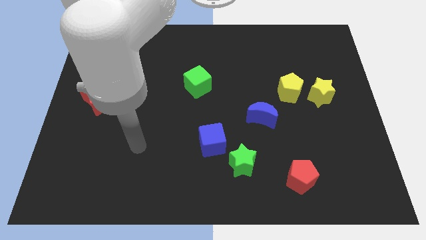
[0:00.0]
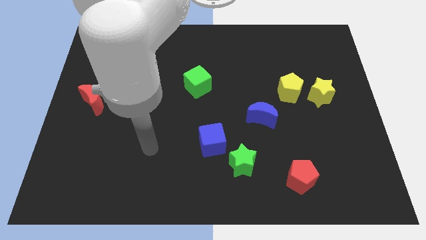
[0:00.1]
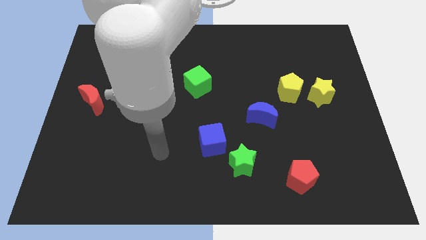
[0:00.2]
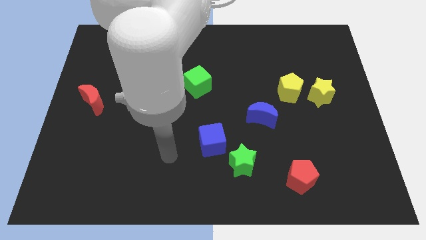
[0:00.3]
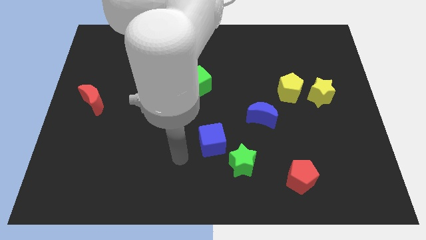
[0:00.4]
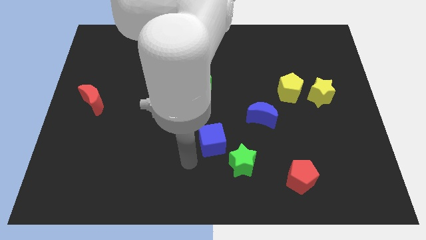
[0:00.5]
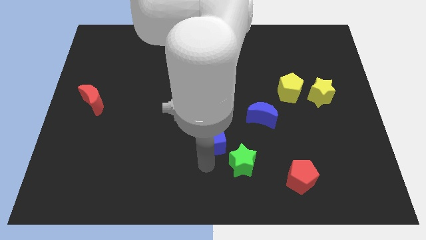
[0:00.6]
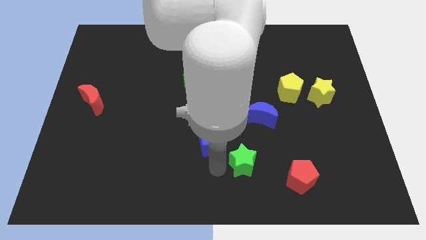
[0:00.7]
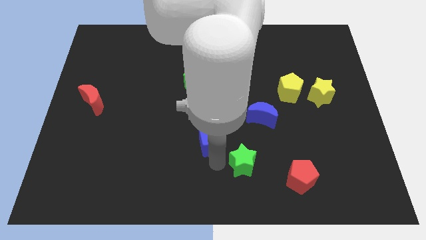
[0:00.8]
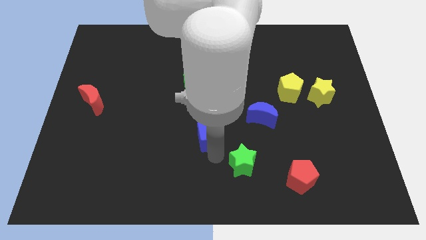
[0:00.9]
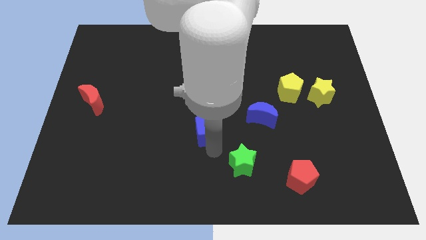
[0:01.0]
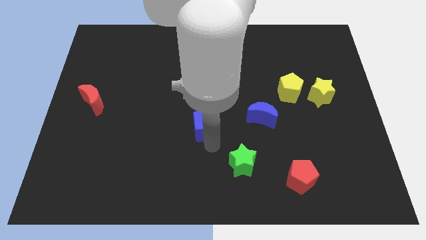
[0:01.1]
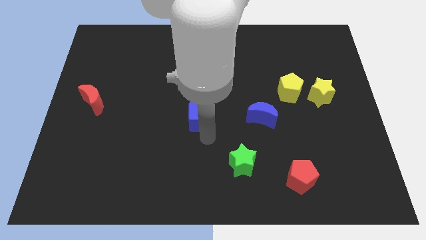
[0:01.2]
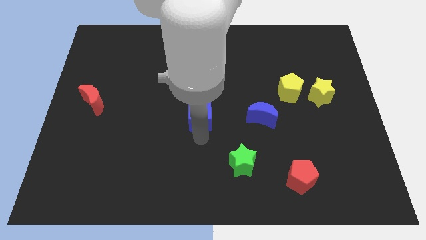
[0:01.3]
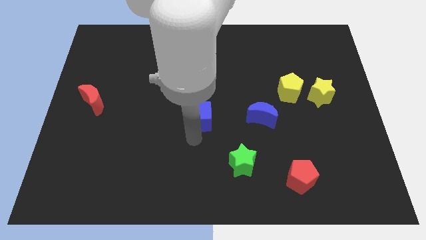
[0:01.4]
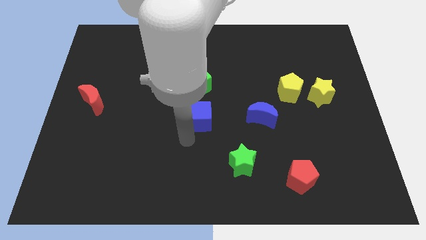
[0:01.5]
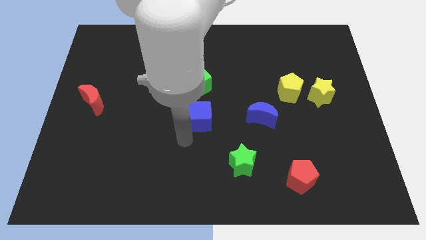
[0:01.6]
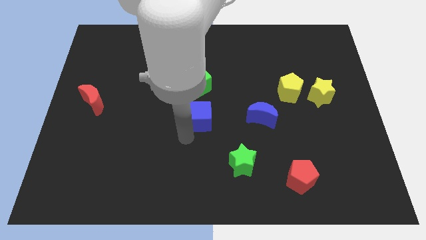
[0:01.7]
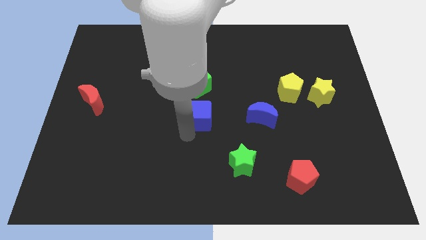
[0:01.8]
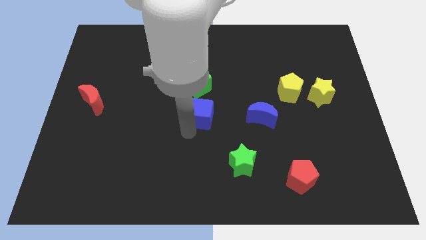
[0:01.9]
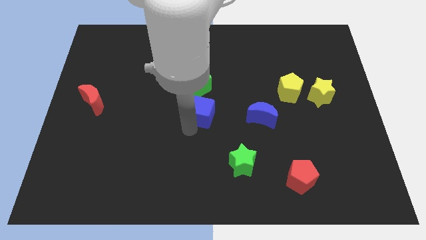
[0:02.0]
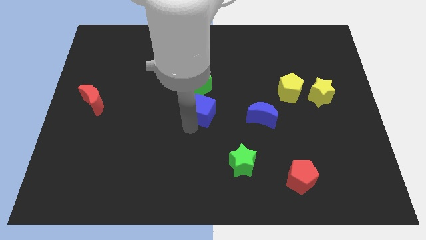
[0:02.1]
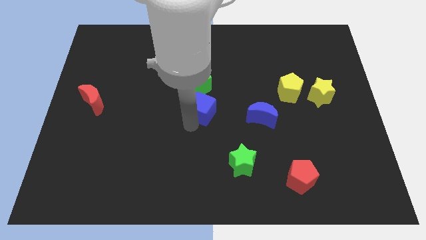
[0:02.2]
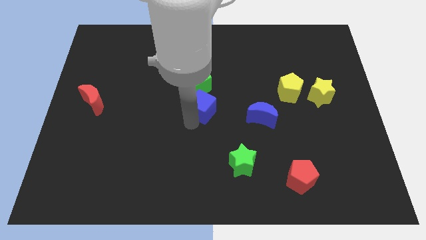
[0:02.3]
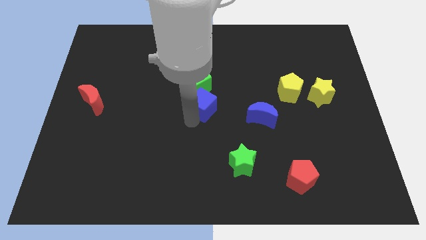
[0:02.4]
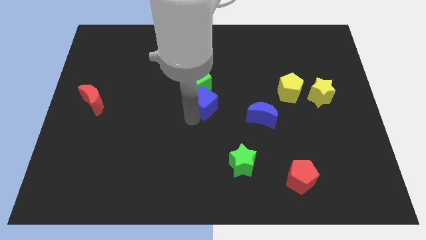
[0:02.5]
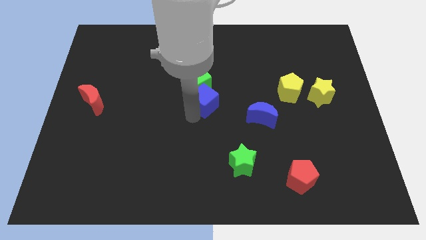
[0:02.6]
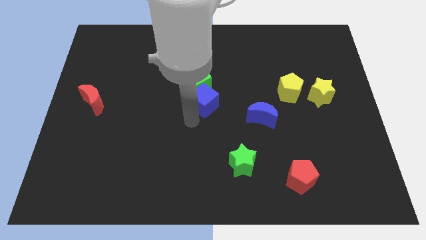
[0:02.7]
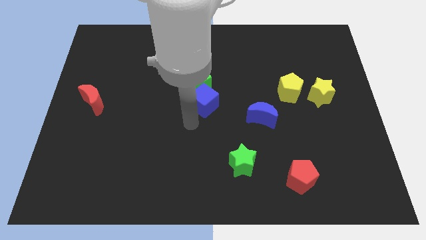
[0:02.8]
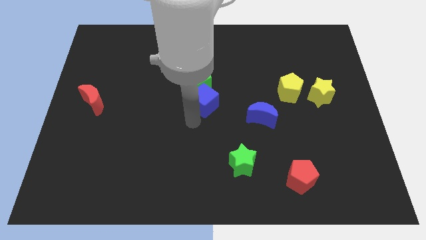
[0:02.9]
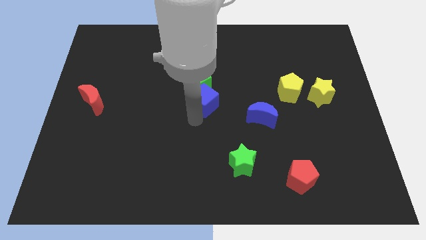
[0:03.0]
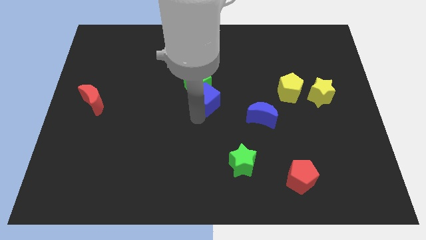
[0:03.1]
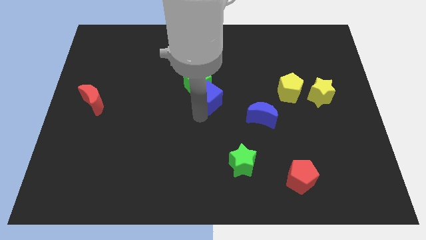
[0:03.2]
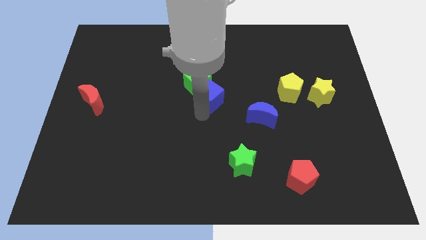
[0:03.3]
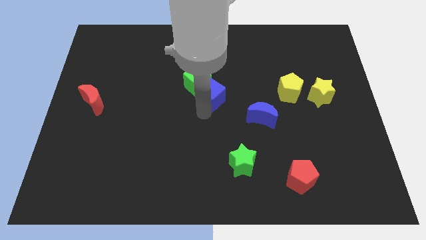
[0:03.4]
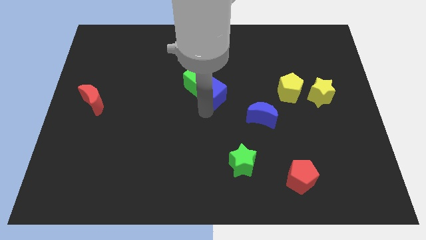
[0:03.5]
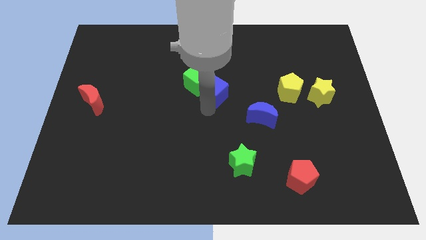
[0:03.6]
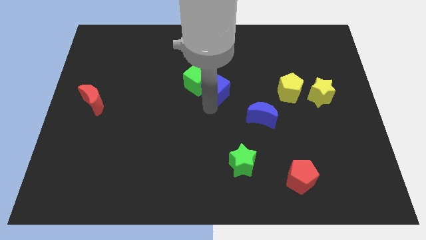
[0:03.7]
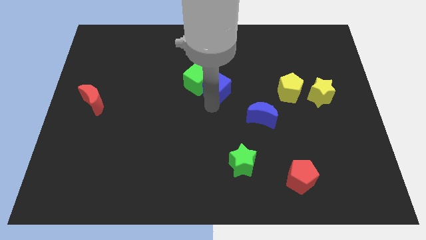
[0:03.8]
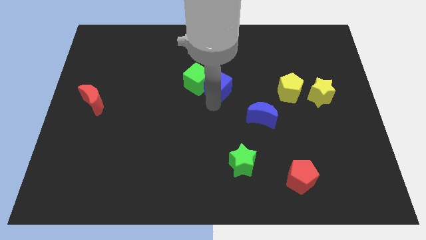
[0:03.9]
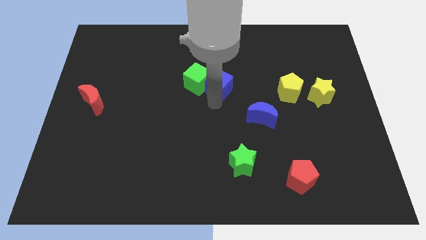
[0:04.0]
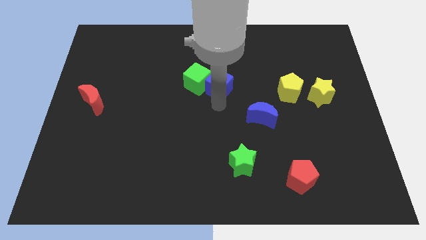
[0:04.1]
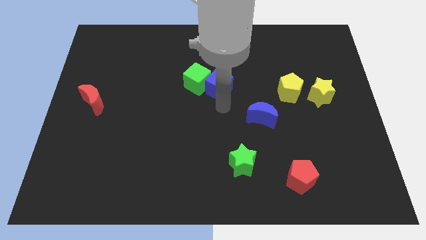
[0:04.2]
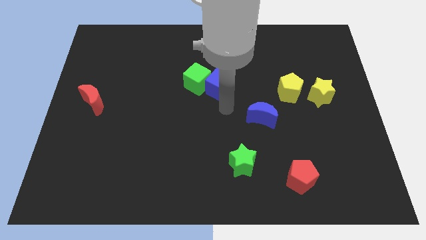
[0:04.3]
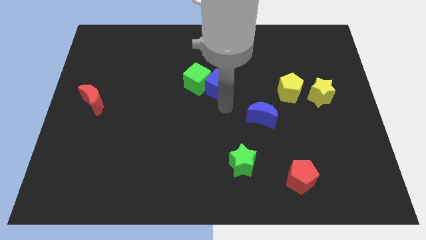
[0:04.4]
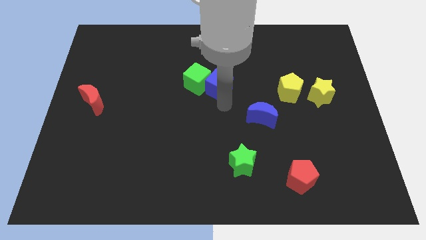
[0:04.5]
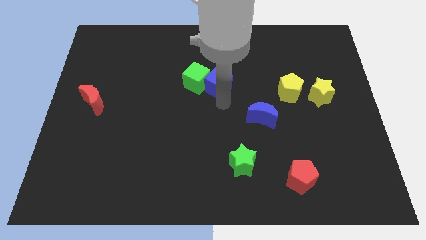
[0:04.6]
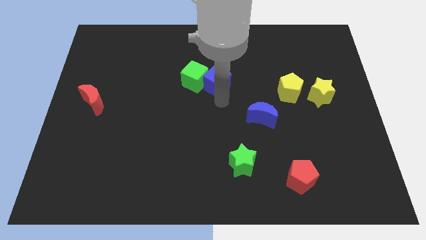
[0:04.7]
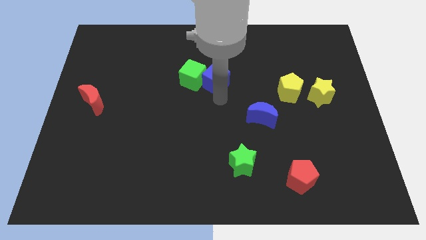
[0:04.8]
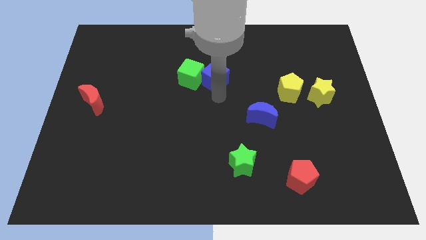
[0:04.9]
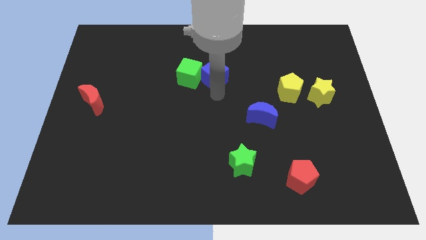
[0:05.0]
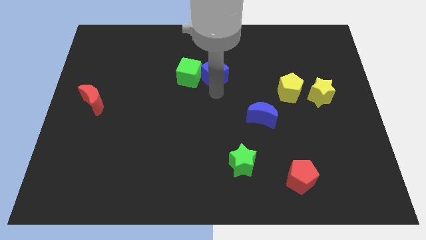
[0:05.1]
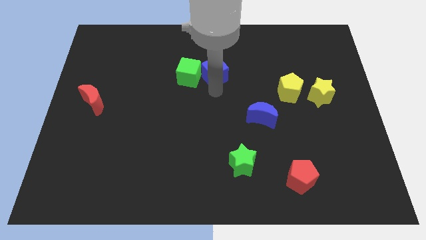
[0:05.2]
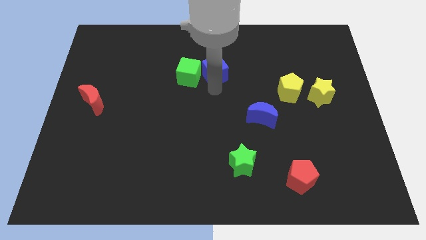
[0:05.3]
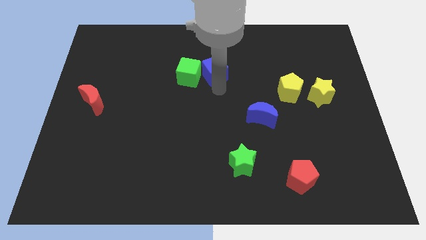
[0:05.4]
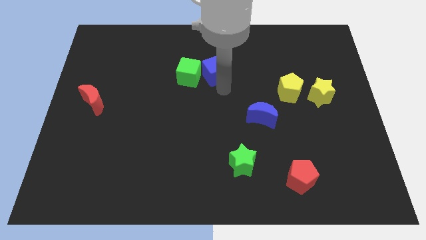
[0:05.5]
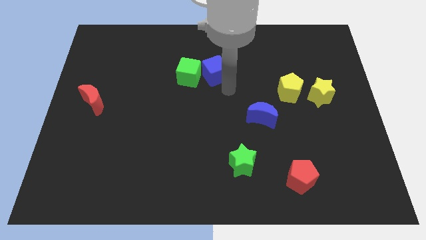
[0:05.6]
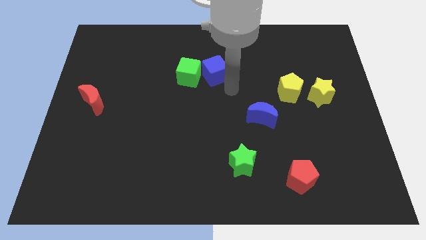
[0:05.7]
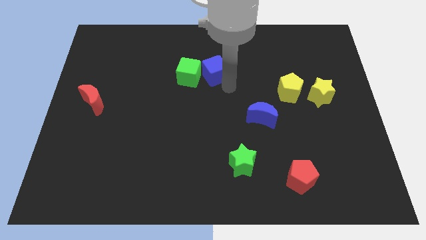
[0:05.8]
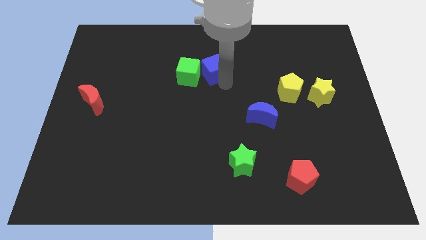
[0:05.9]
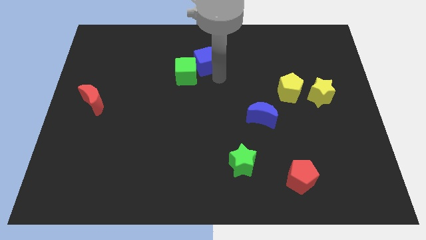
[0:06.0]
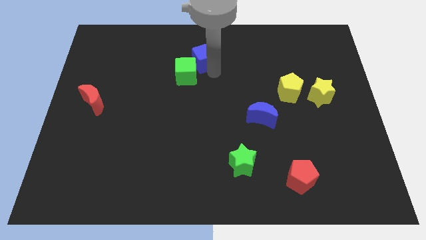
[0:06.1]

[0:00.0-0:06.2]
move the blue cube to the top side of the green cube

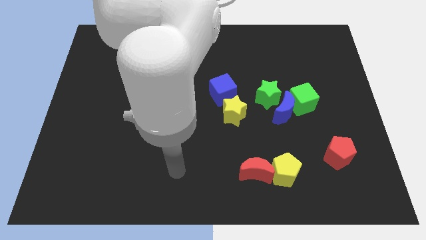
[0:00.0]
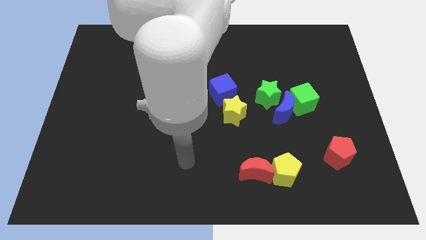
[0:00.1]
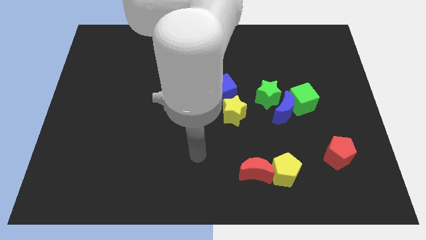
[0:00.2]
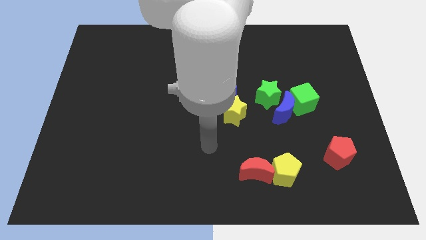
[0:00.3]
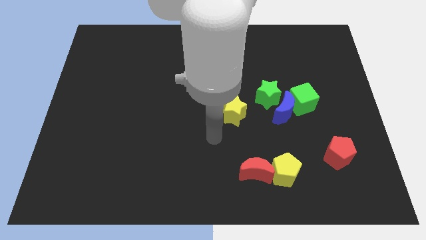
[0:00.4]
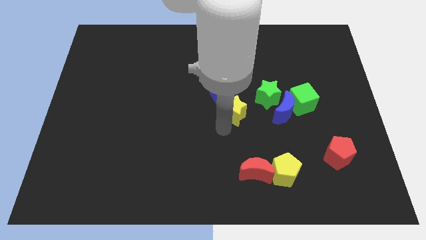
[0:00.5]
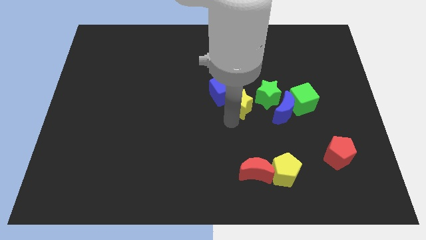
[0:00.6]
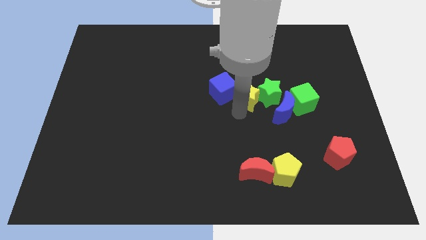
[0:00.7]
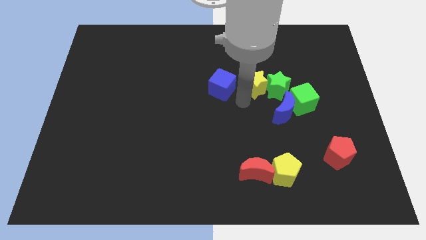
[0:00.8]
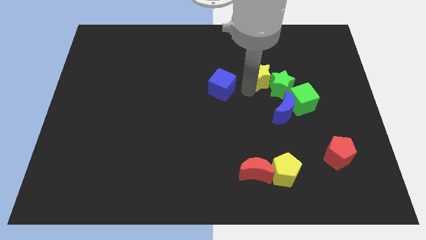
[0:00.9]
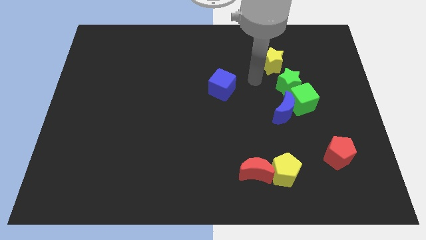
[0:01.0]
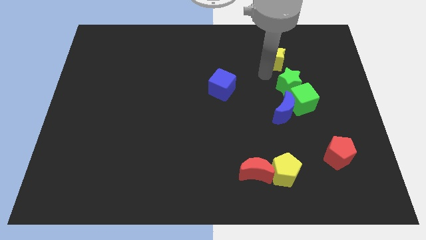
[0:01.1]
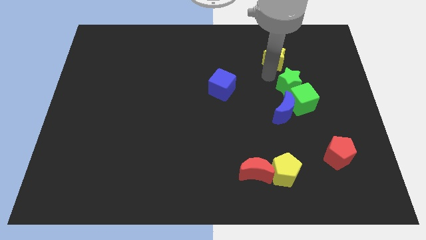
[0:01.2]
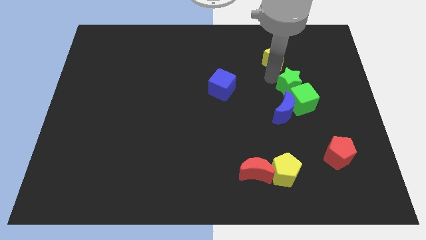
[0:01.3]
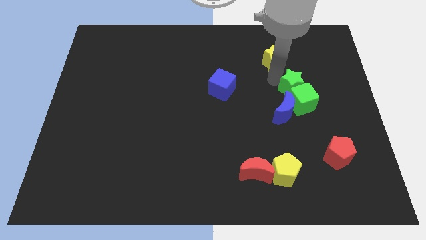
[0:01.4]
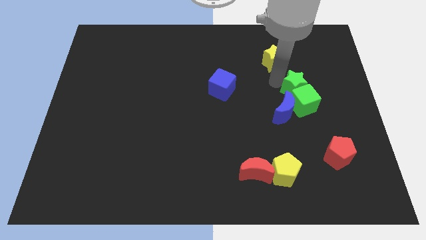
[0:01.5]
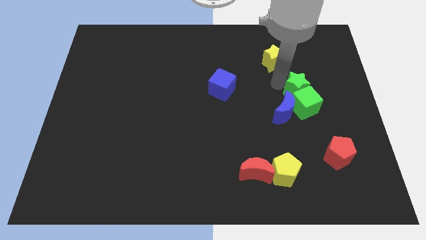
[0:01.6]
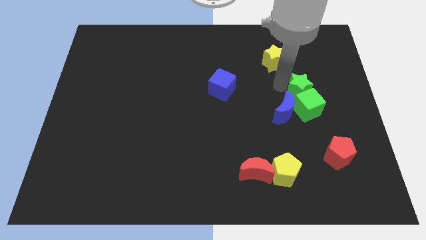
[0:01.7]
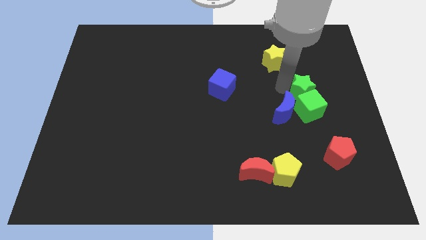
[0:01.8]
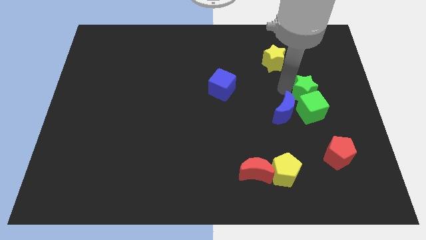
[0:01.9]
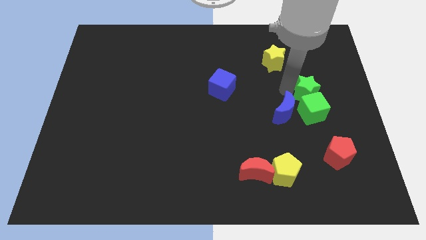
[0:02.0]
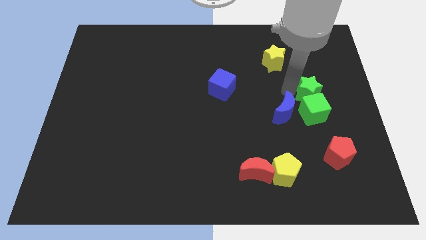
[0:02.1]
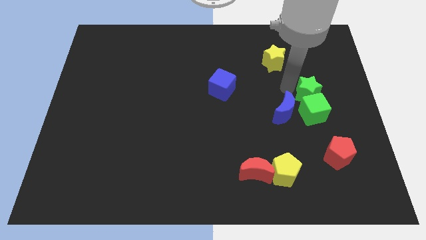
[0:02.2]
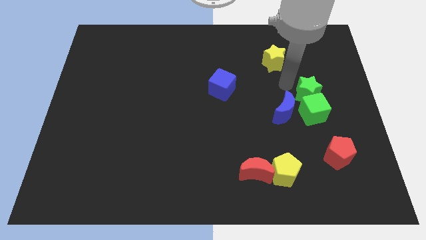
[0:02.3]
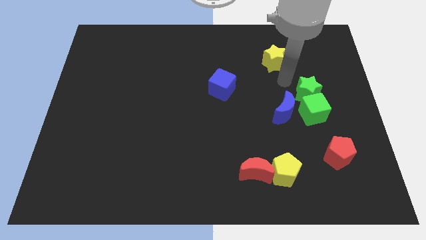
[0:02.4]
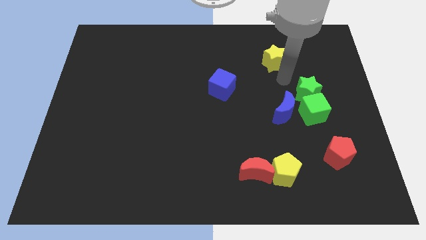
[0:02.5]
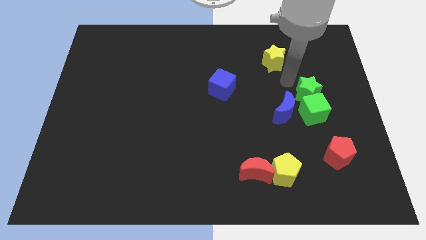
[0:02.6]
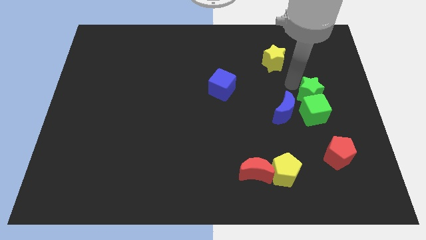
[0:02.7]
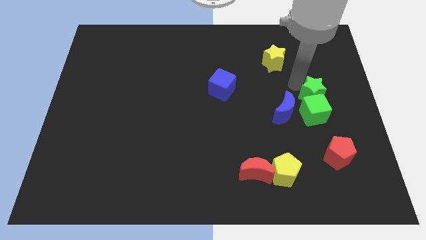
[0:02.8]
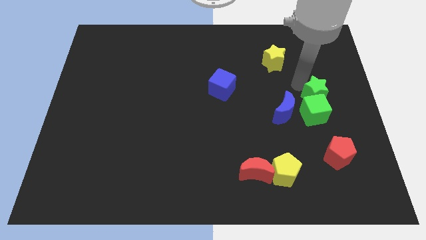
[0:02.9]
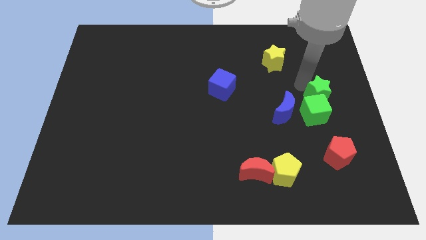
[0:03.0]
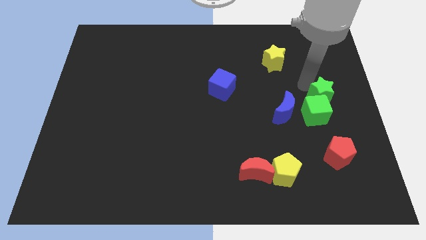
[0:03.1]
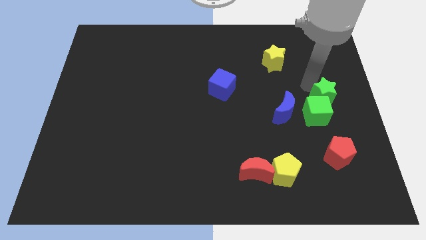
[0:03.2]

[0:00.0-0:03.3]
put the green star right of the blue moon
